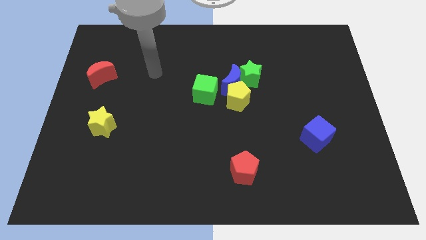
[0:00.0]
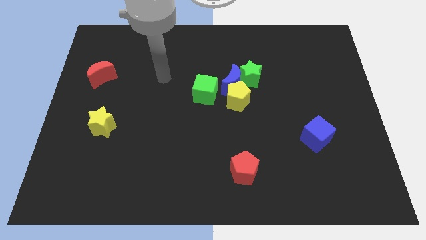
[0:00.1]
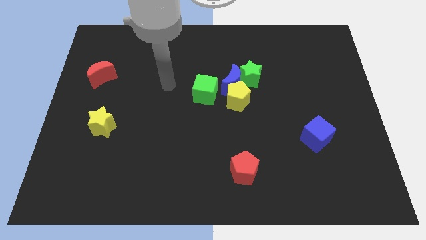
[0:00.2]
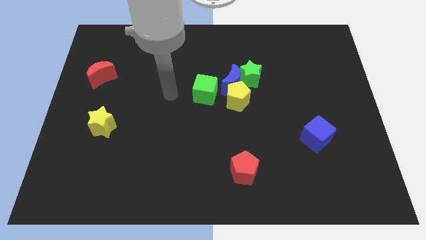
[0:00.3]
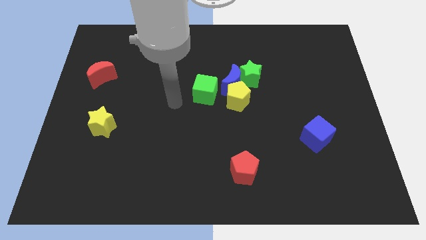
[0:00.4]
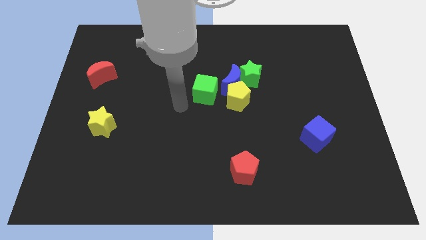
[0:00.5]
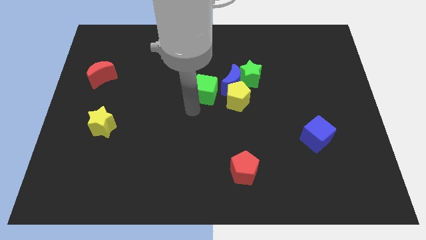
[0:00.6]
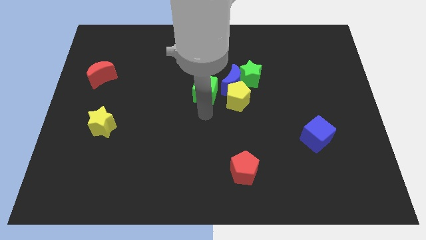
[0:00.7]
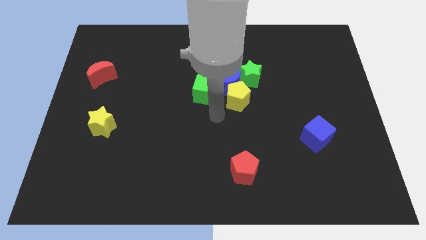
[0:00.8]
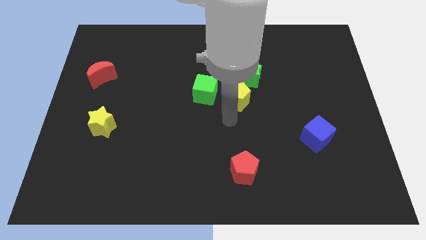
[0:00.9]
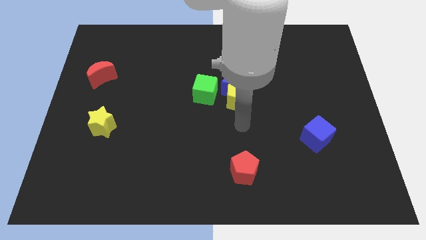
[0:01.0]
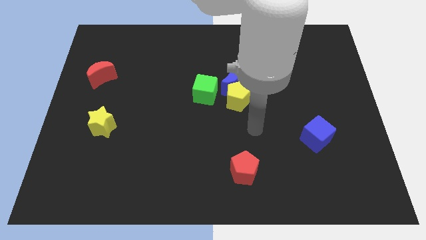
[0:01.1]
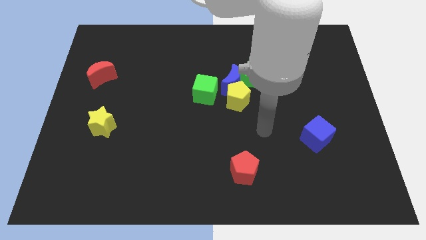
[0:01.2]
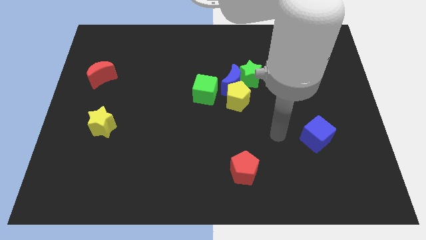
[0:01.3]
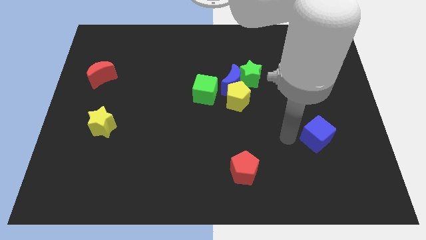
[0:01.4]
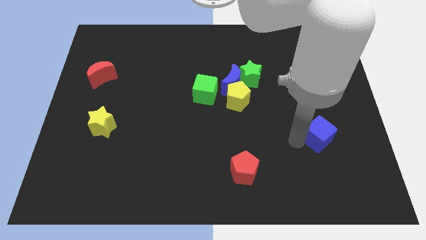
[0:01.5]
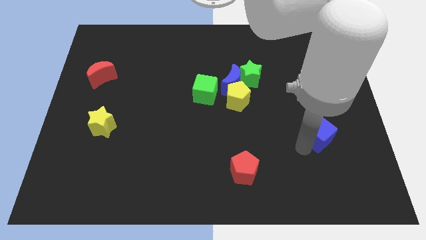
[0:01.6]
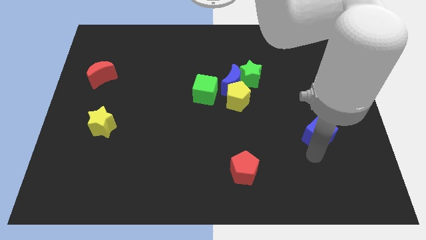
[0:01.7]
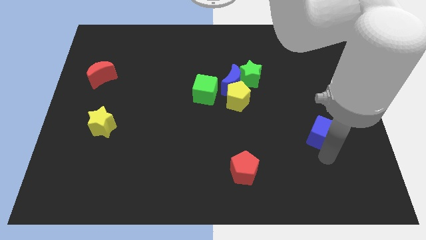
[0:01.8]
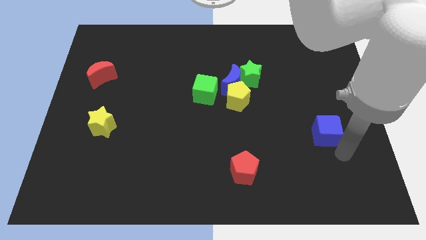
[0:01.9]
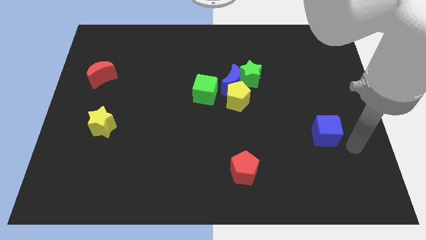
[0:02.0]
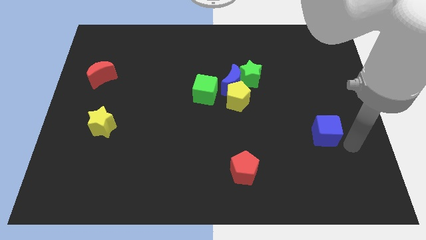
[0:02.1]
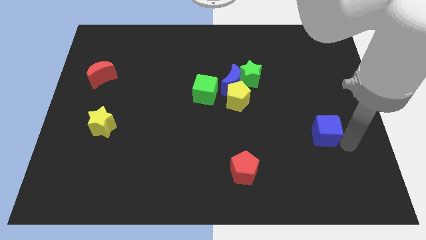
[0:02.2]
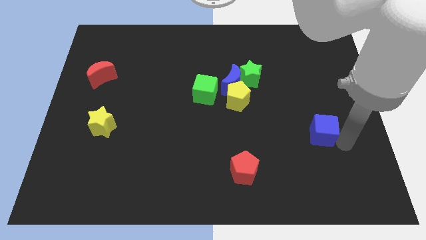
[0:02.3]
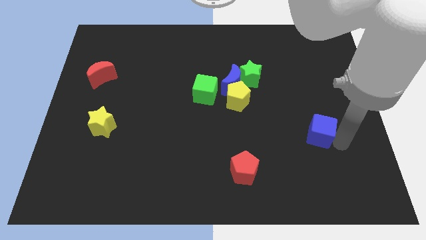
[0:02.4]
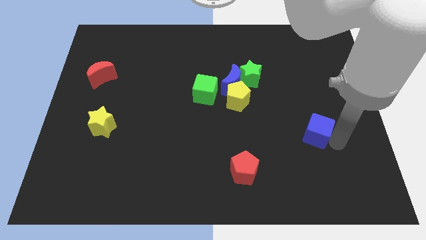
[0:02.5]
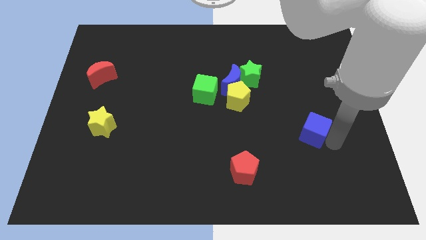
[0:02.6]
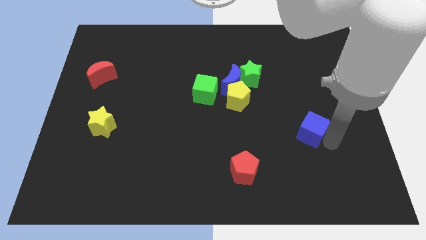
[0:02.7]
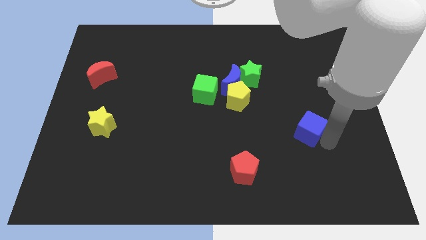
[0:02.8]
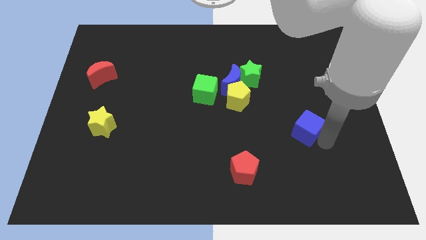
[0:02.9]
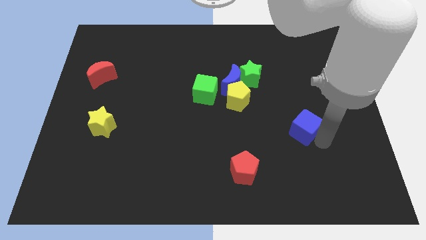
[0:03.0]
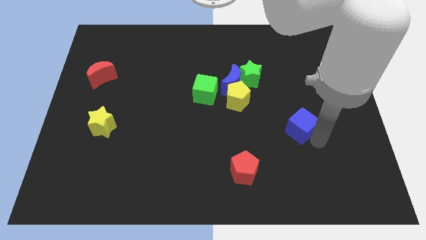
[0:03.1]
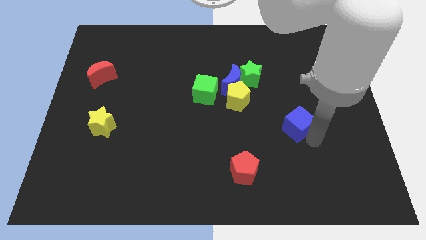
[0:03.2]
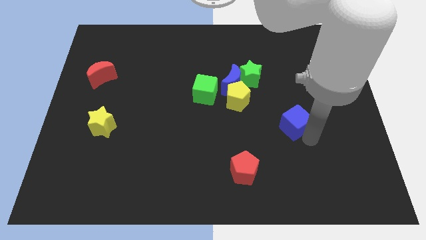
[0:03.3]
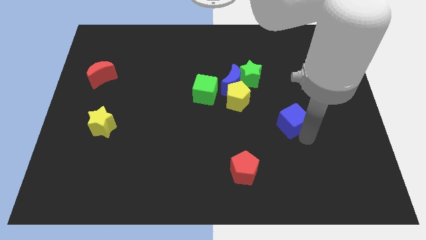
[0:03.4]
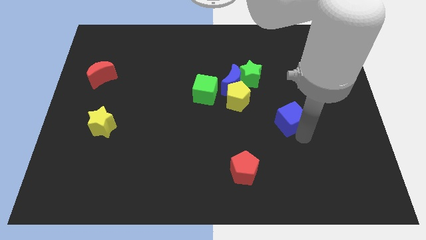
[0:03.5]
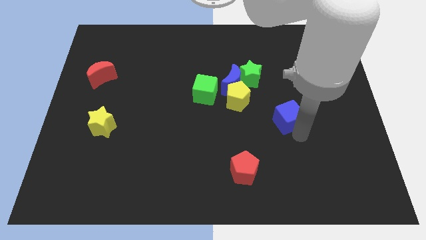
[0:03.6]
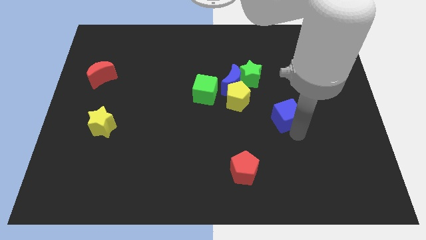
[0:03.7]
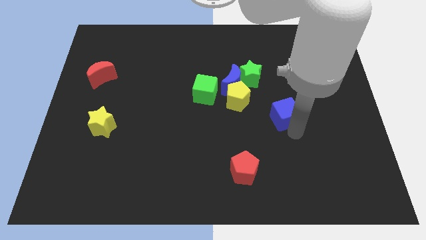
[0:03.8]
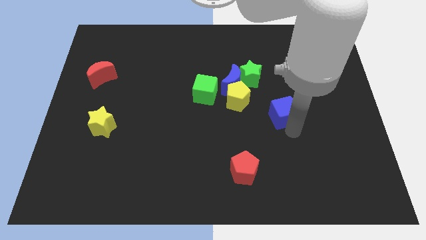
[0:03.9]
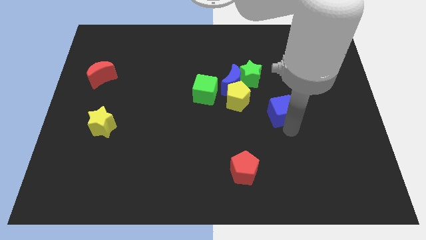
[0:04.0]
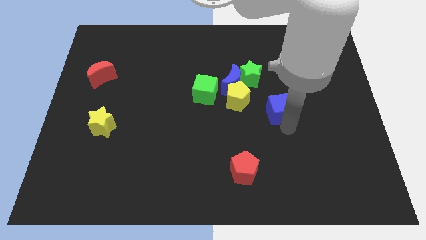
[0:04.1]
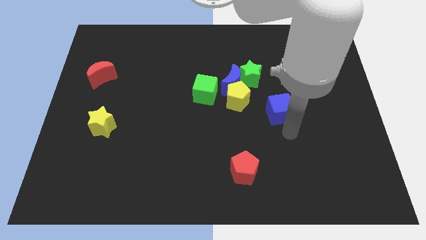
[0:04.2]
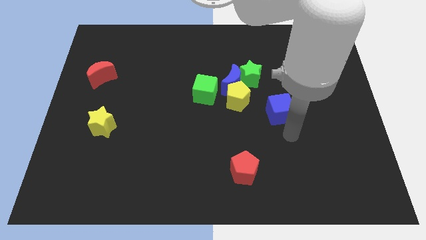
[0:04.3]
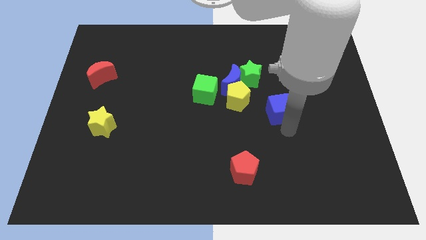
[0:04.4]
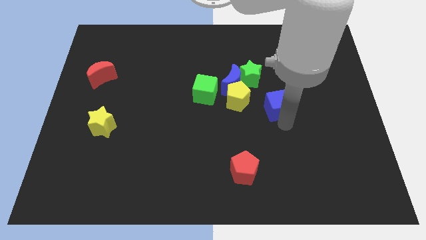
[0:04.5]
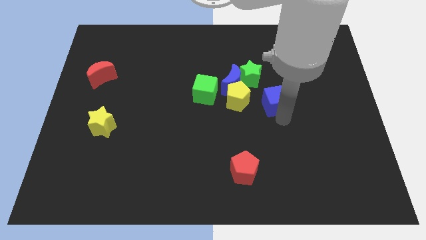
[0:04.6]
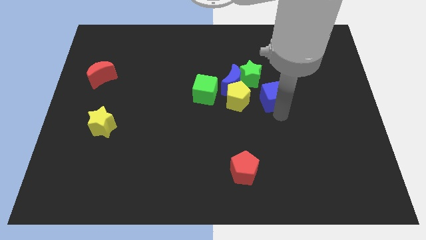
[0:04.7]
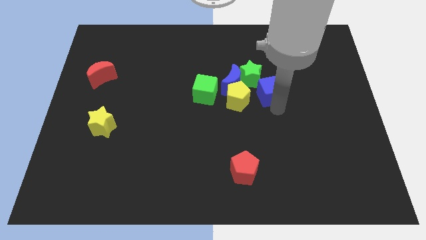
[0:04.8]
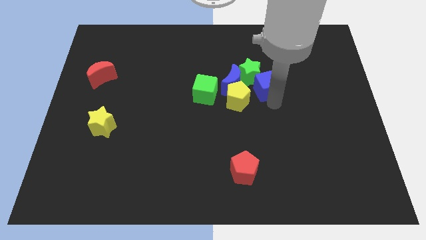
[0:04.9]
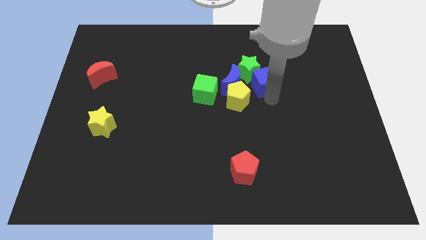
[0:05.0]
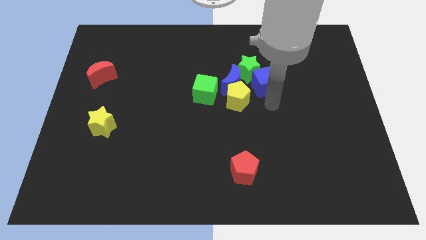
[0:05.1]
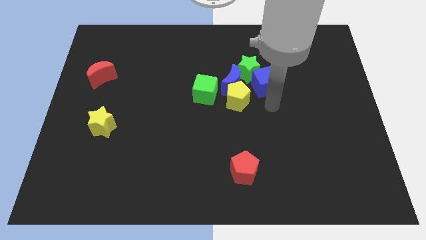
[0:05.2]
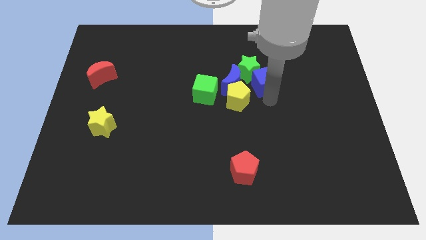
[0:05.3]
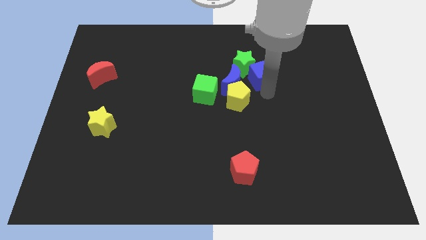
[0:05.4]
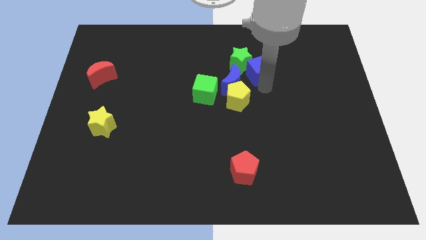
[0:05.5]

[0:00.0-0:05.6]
slide the blue cube diagonally up and left

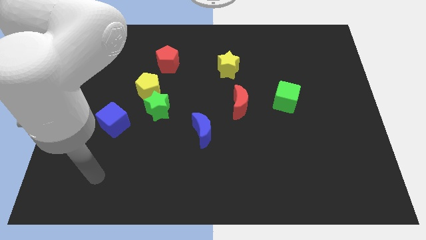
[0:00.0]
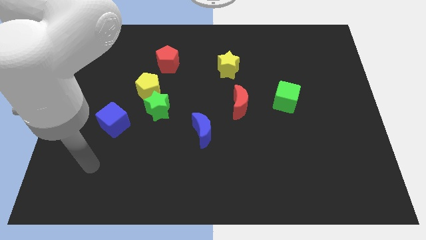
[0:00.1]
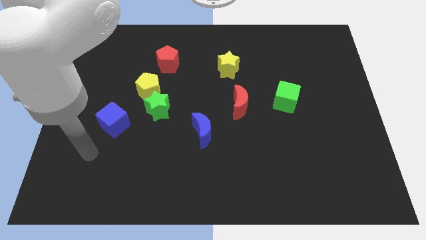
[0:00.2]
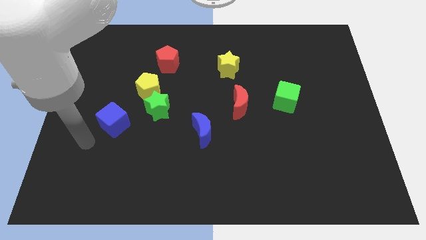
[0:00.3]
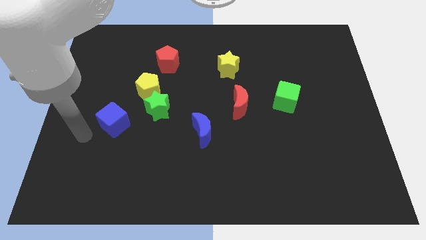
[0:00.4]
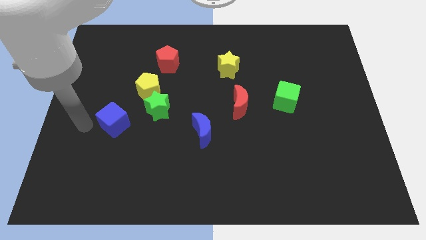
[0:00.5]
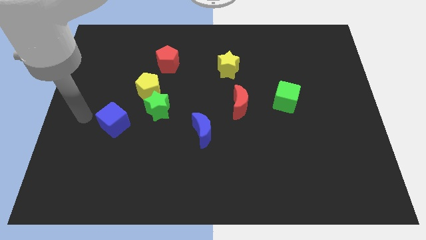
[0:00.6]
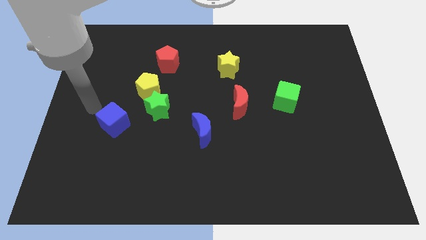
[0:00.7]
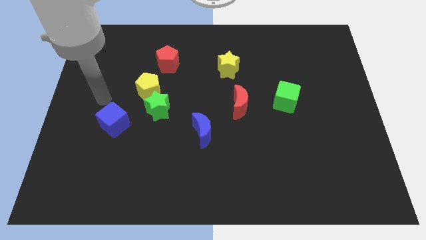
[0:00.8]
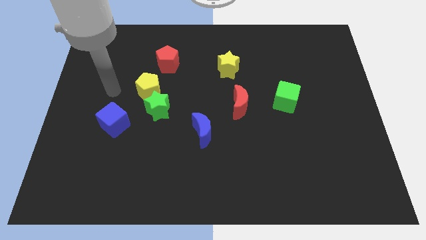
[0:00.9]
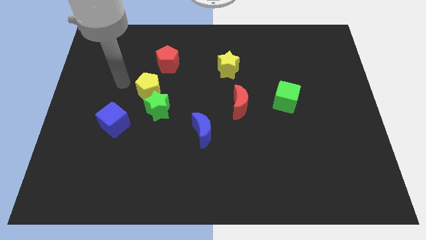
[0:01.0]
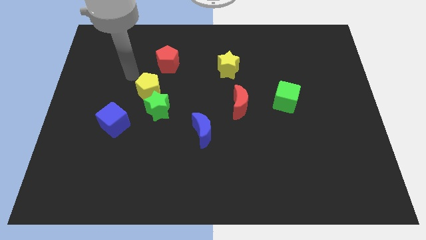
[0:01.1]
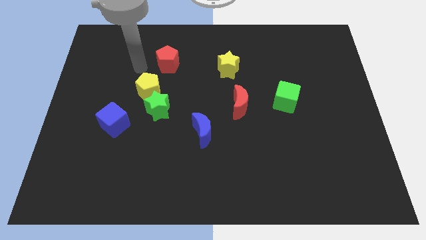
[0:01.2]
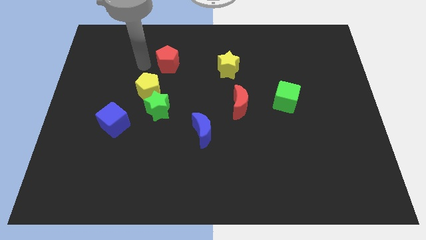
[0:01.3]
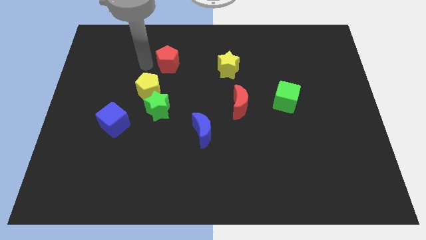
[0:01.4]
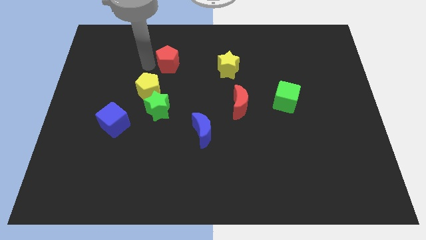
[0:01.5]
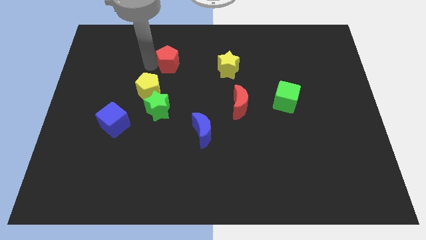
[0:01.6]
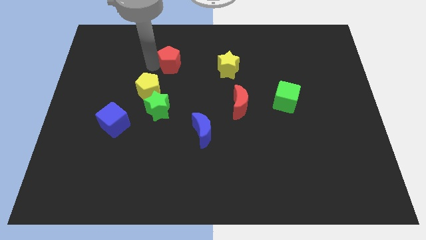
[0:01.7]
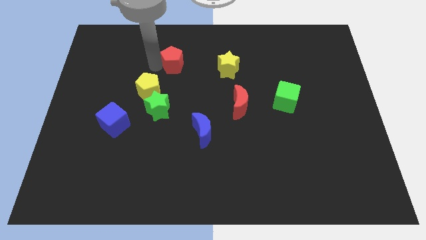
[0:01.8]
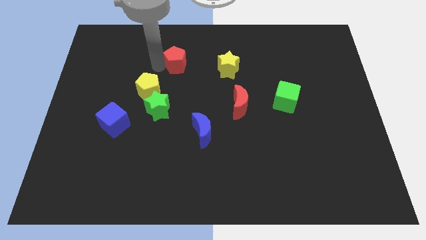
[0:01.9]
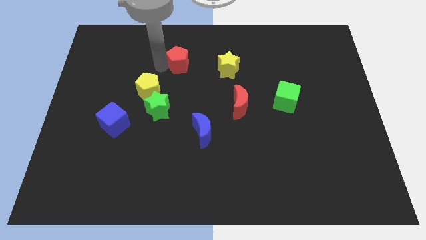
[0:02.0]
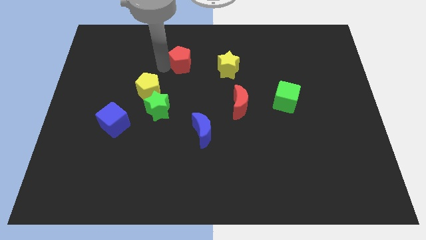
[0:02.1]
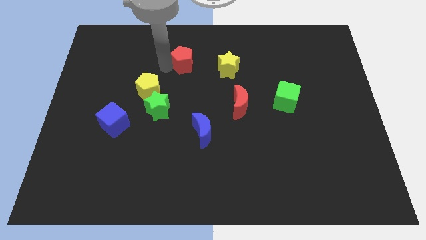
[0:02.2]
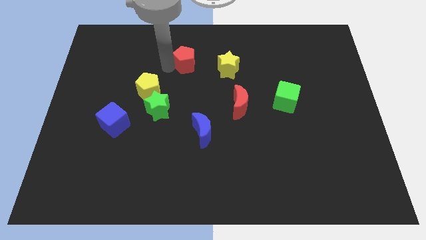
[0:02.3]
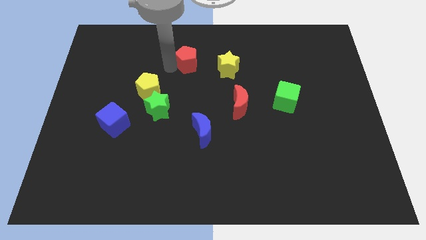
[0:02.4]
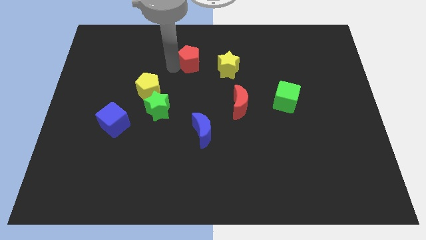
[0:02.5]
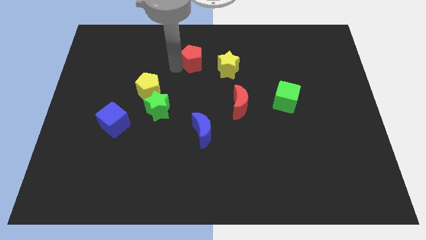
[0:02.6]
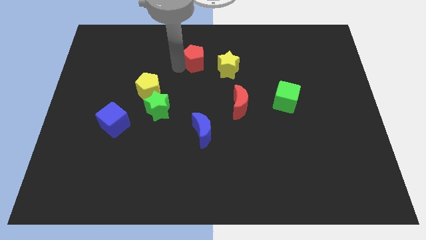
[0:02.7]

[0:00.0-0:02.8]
slightly slide the red pentagon to the right

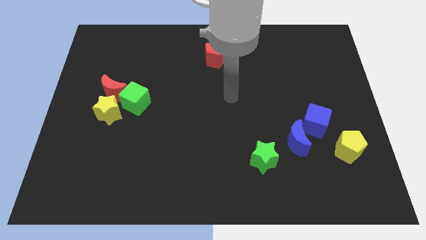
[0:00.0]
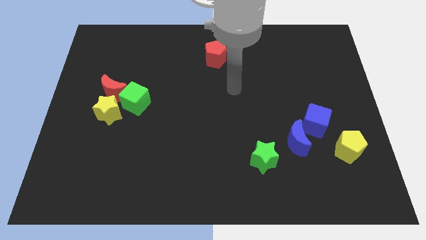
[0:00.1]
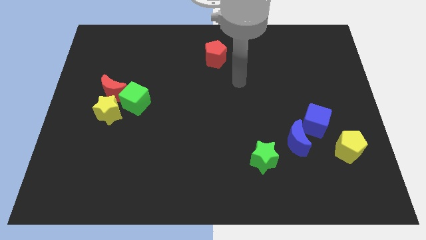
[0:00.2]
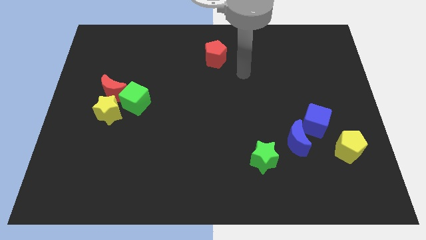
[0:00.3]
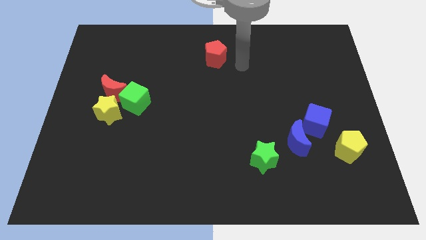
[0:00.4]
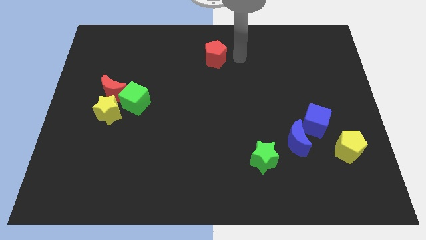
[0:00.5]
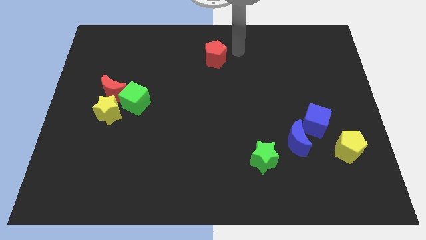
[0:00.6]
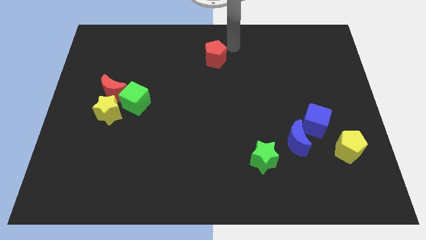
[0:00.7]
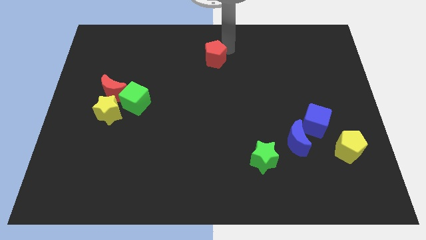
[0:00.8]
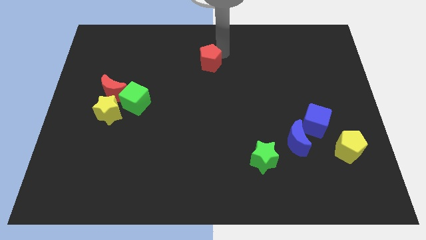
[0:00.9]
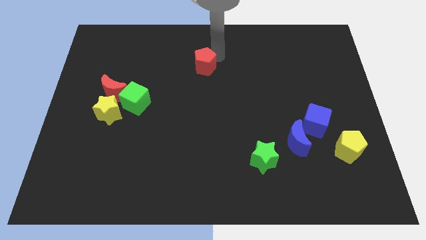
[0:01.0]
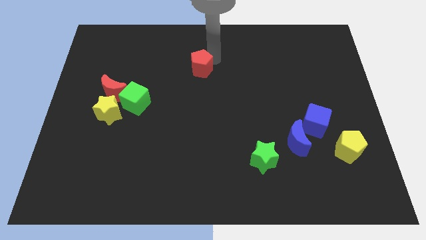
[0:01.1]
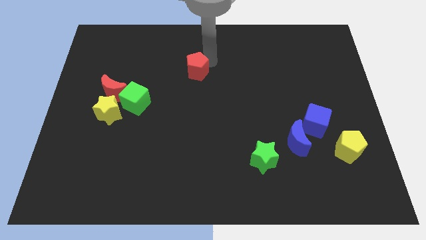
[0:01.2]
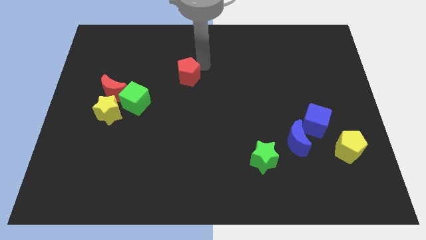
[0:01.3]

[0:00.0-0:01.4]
slightly slide the red pentagon diagonally downwards and left
